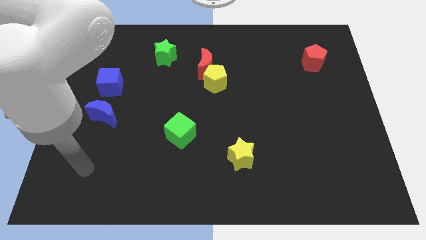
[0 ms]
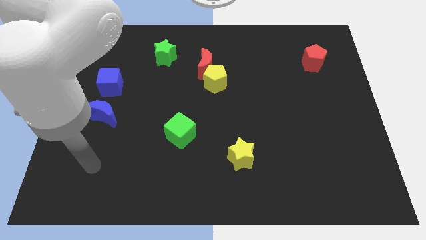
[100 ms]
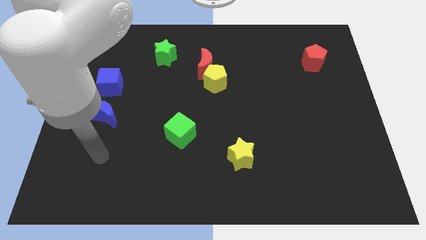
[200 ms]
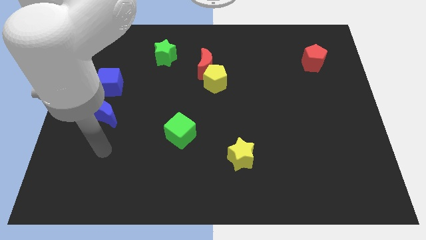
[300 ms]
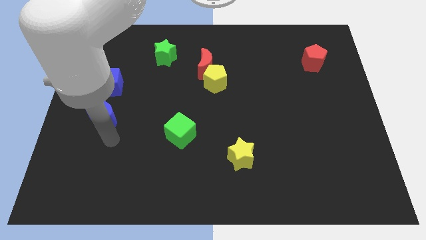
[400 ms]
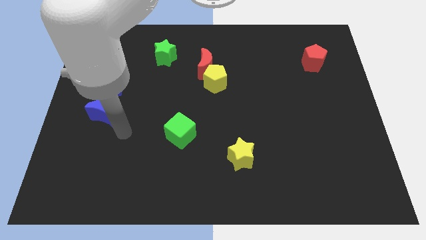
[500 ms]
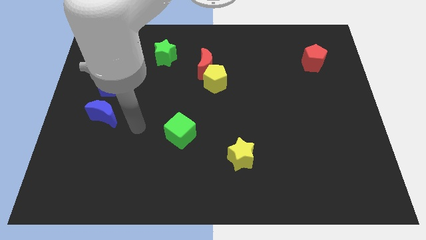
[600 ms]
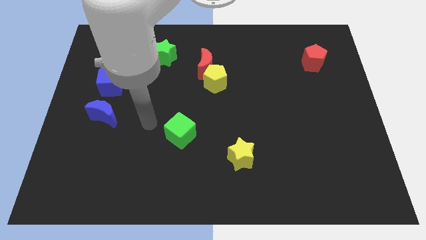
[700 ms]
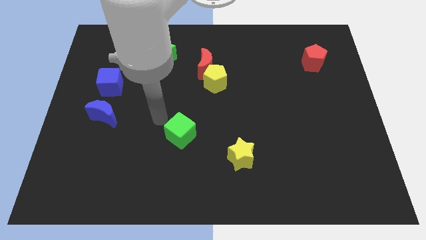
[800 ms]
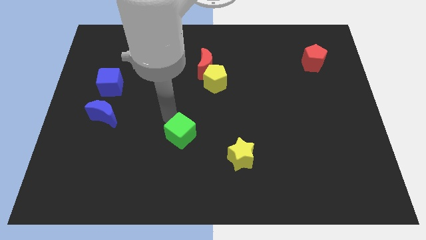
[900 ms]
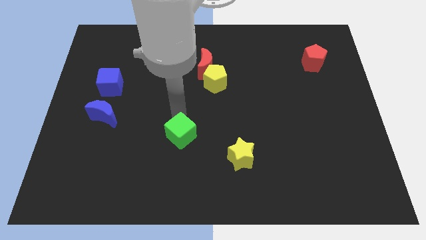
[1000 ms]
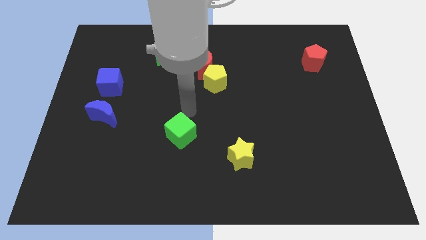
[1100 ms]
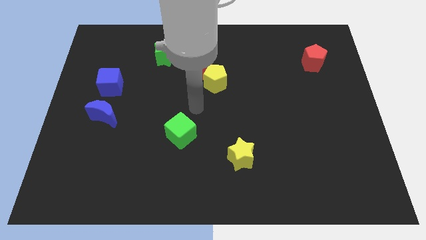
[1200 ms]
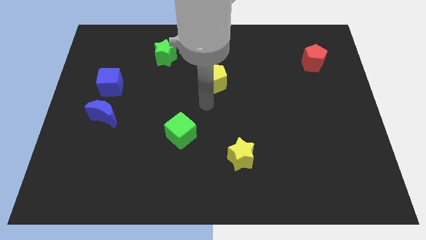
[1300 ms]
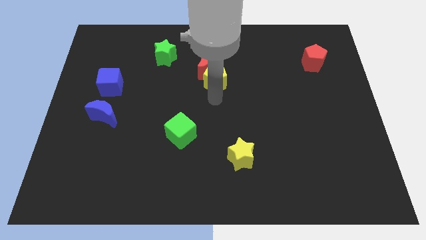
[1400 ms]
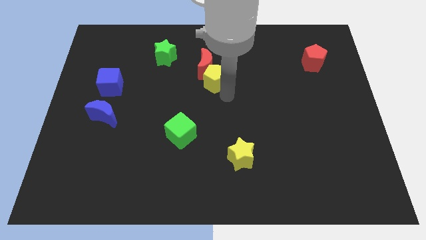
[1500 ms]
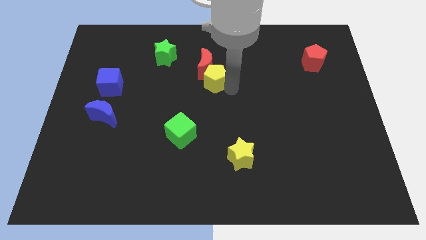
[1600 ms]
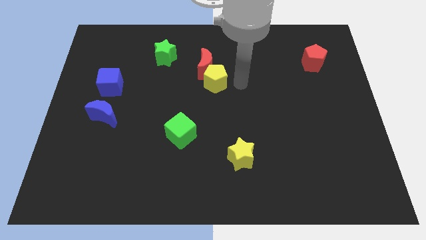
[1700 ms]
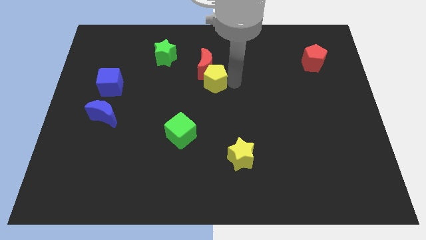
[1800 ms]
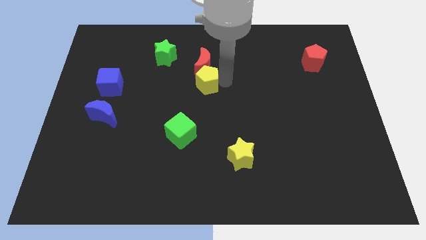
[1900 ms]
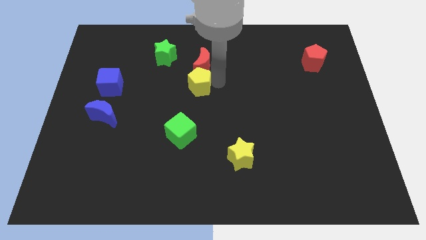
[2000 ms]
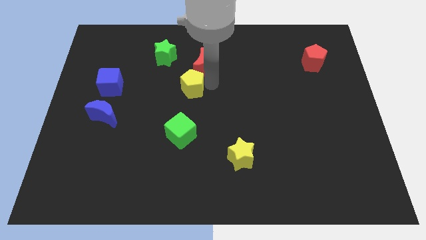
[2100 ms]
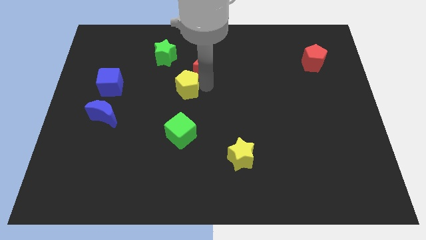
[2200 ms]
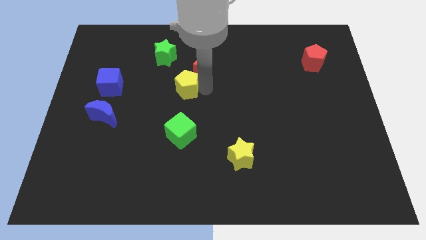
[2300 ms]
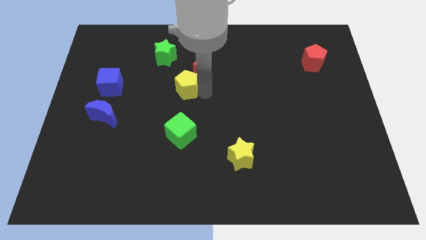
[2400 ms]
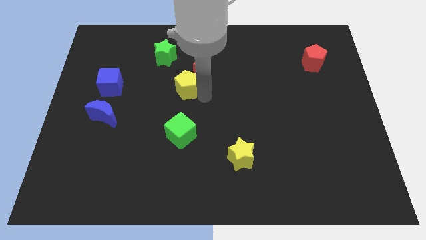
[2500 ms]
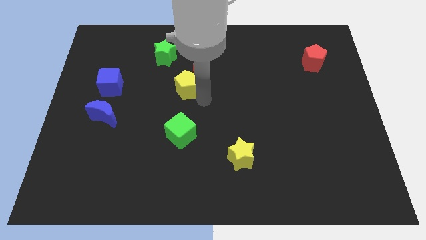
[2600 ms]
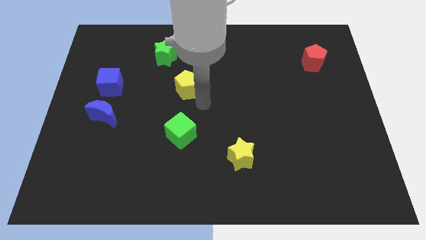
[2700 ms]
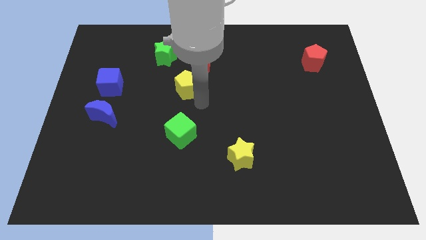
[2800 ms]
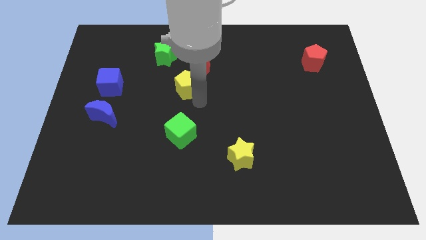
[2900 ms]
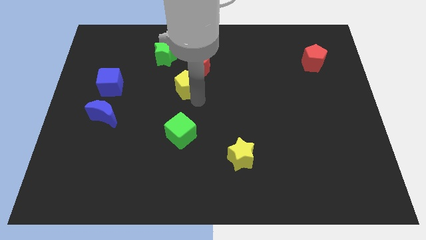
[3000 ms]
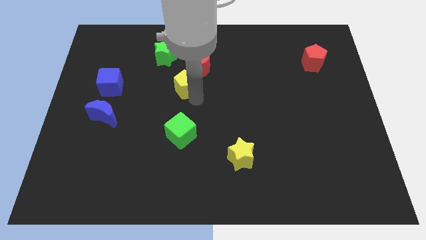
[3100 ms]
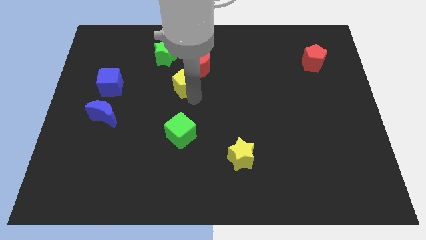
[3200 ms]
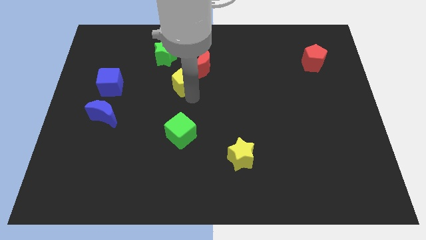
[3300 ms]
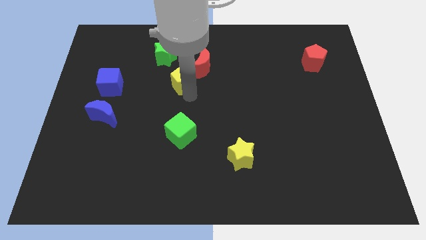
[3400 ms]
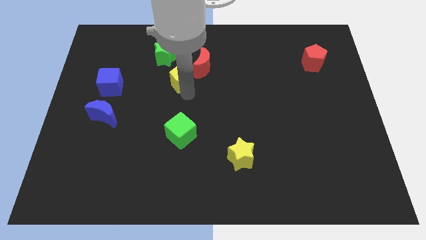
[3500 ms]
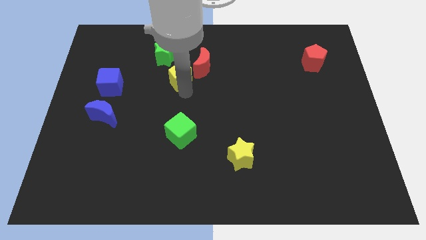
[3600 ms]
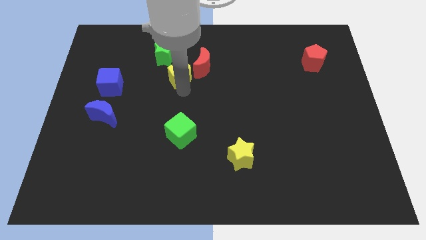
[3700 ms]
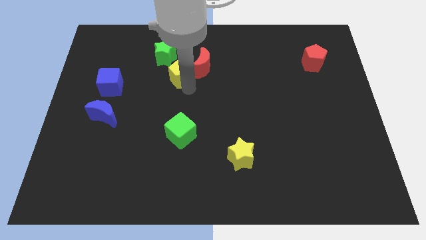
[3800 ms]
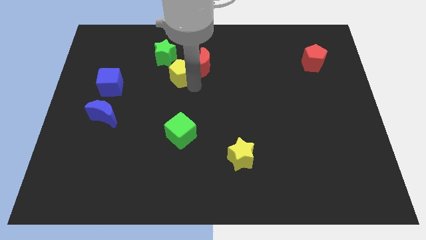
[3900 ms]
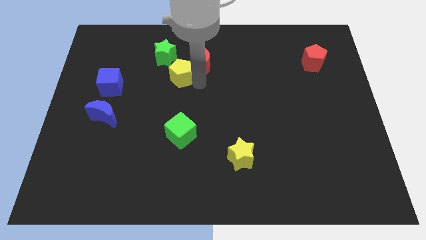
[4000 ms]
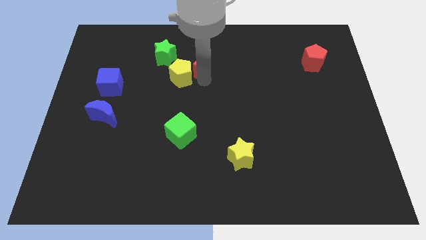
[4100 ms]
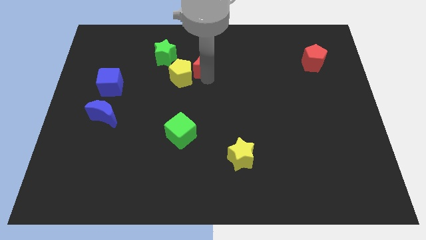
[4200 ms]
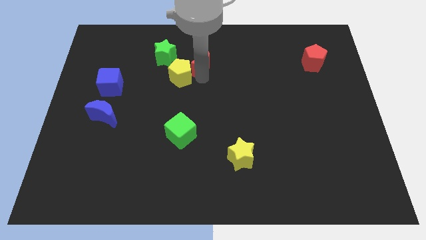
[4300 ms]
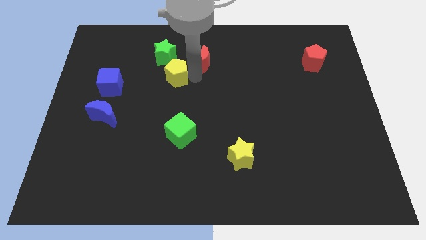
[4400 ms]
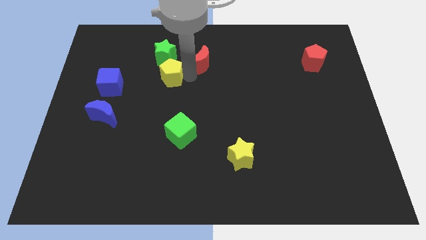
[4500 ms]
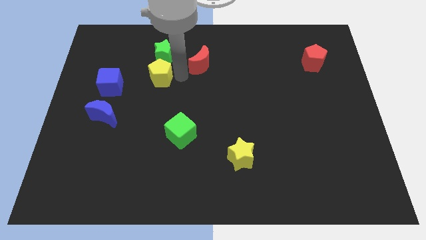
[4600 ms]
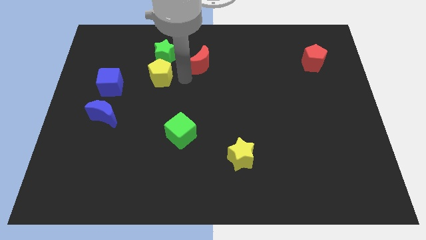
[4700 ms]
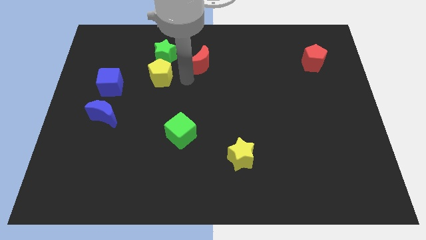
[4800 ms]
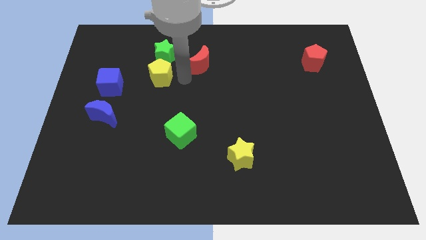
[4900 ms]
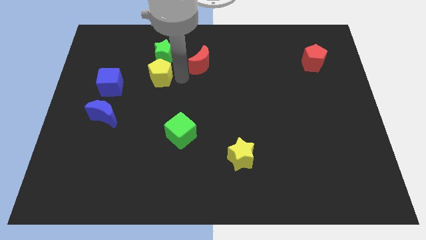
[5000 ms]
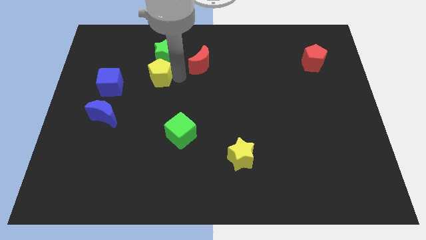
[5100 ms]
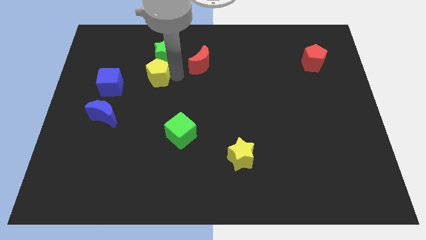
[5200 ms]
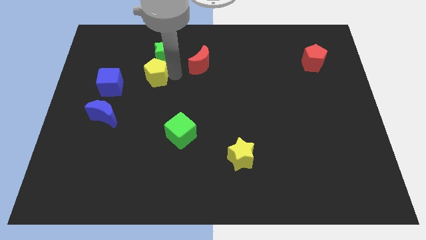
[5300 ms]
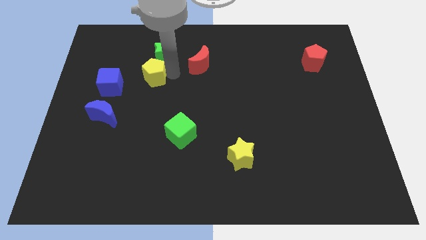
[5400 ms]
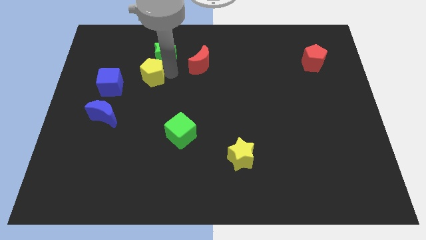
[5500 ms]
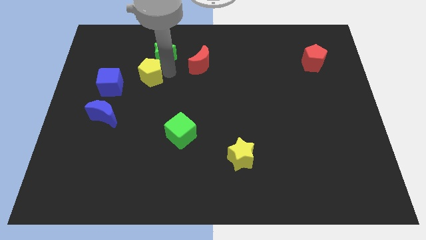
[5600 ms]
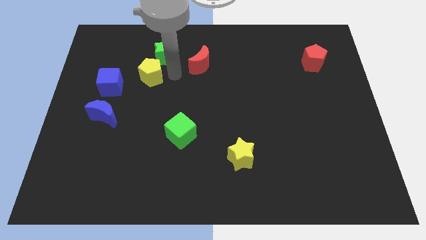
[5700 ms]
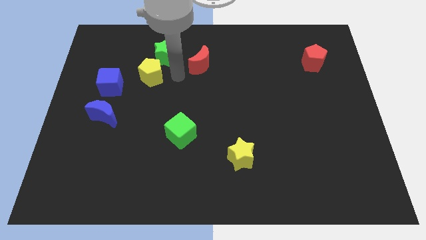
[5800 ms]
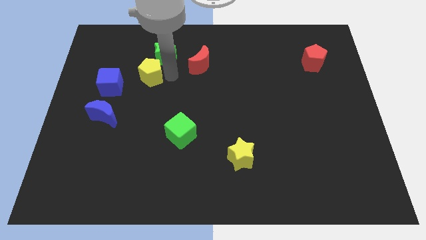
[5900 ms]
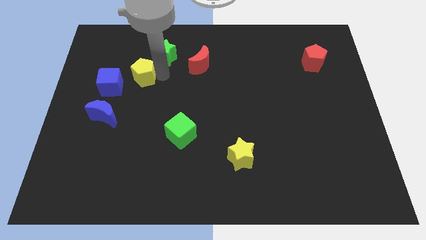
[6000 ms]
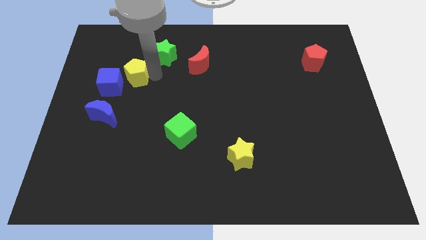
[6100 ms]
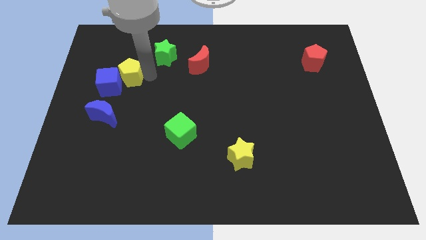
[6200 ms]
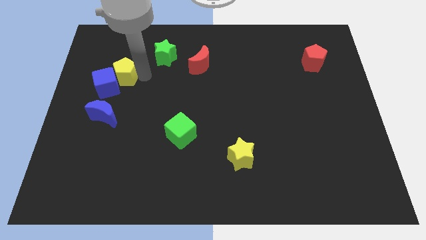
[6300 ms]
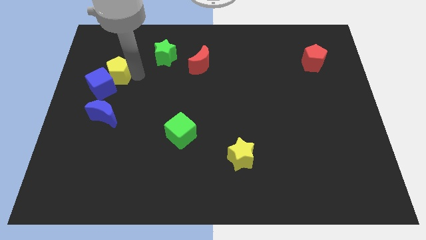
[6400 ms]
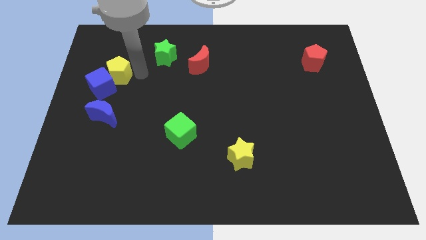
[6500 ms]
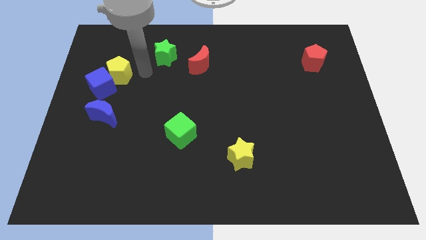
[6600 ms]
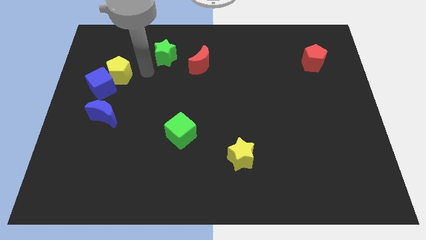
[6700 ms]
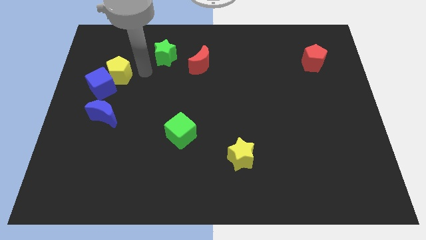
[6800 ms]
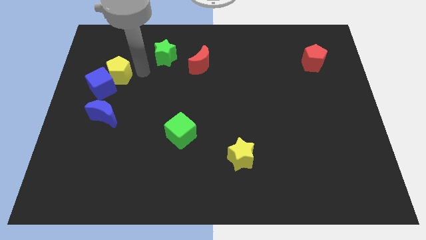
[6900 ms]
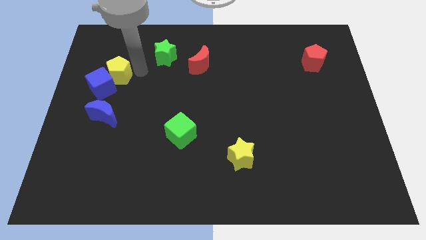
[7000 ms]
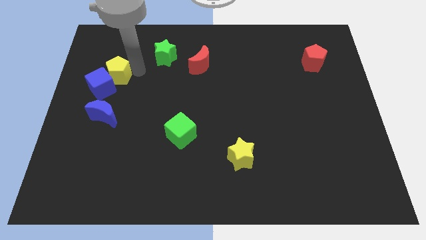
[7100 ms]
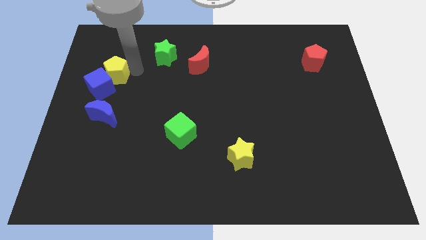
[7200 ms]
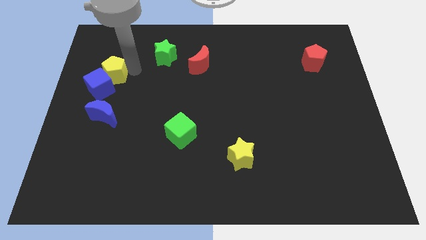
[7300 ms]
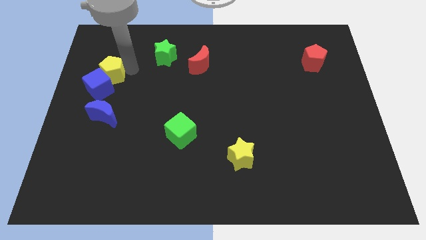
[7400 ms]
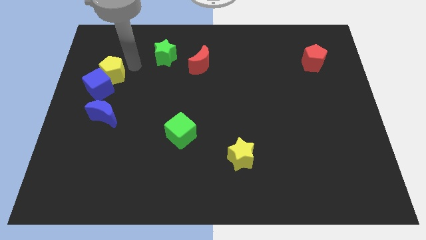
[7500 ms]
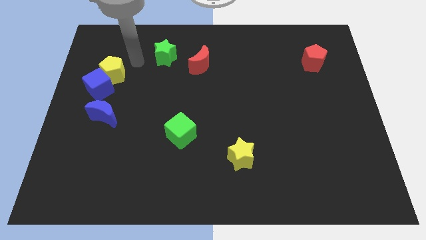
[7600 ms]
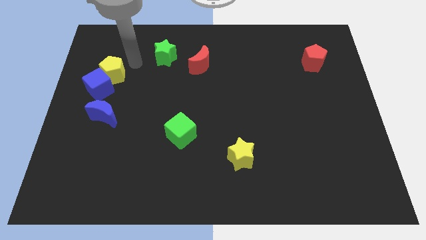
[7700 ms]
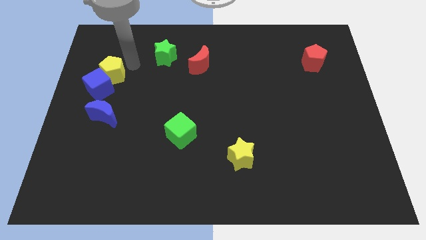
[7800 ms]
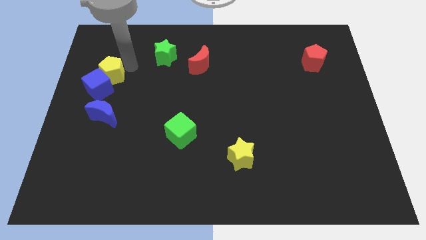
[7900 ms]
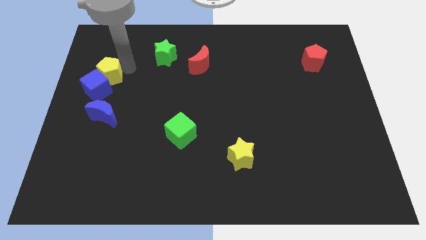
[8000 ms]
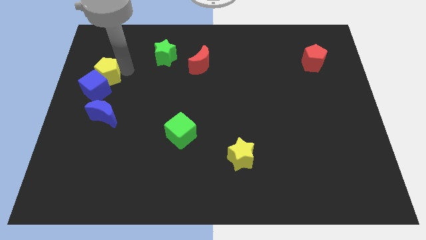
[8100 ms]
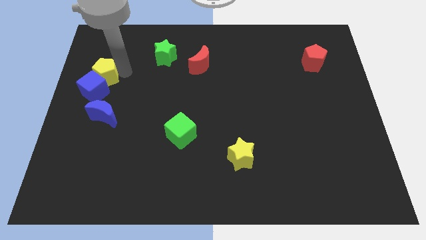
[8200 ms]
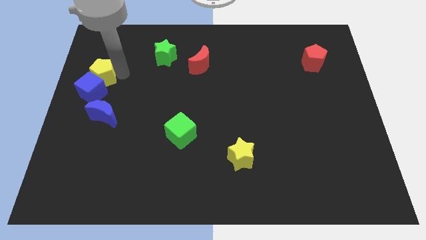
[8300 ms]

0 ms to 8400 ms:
put the yellow pentagon to the left side
